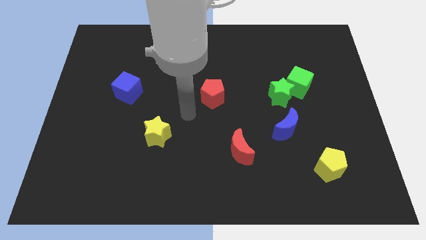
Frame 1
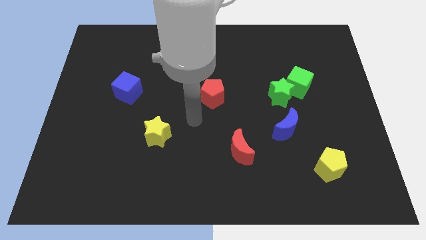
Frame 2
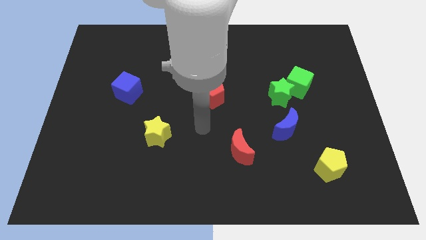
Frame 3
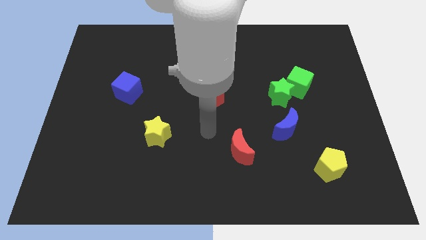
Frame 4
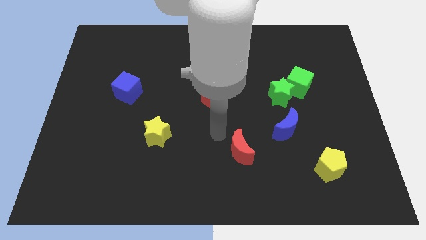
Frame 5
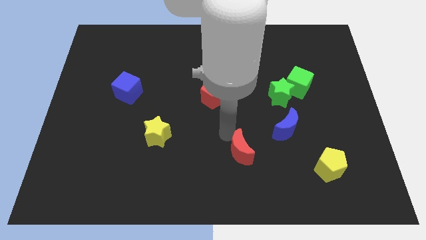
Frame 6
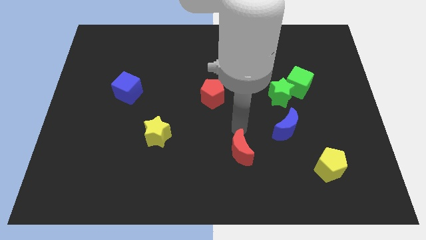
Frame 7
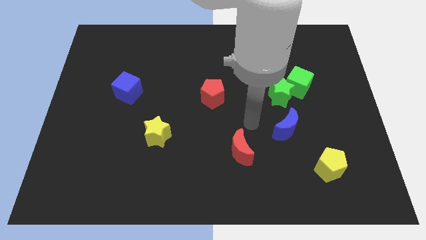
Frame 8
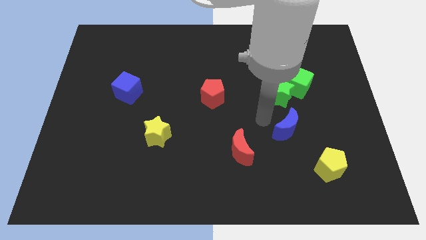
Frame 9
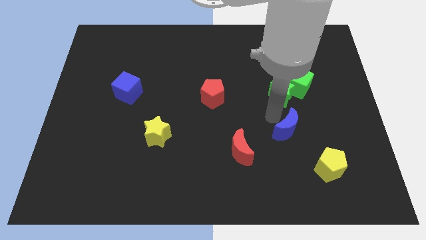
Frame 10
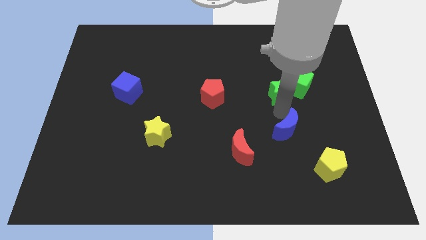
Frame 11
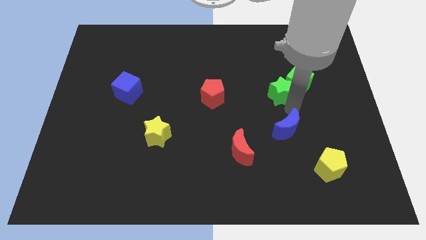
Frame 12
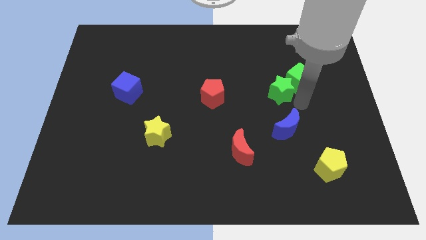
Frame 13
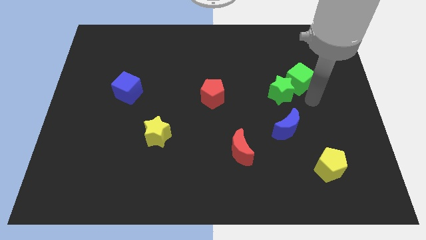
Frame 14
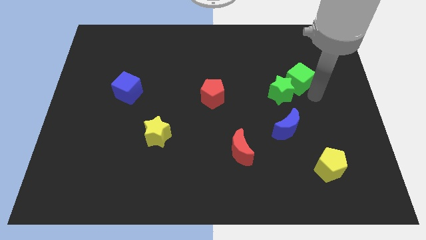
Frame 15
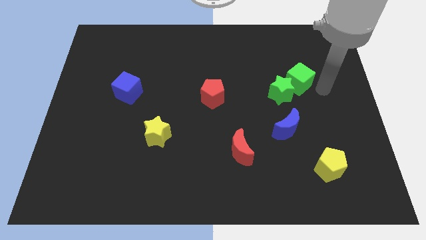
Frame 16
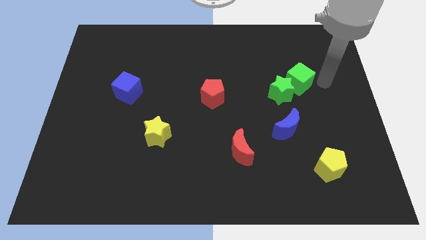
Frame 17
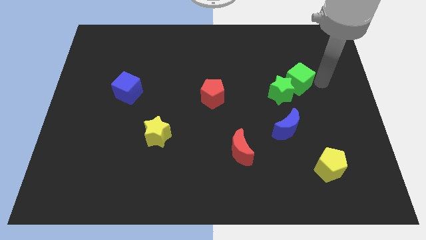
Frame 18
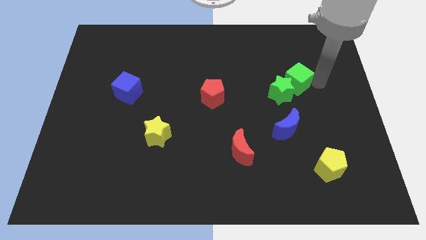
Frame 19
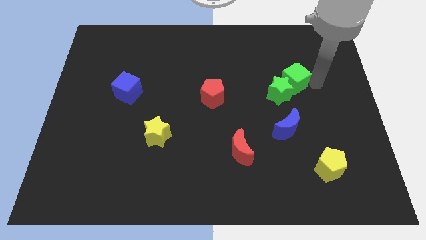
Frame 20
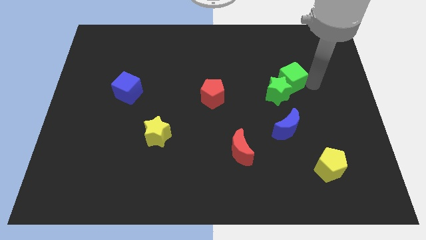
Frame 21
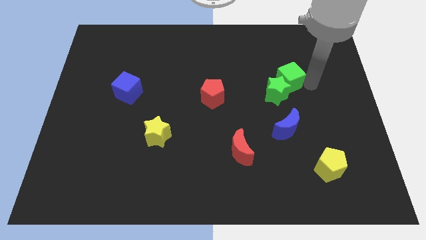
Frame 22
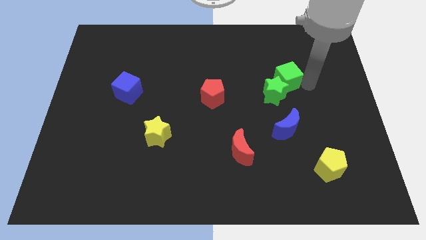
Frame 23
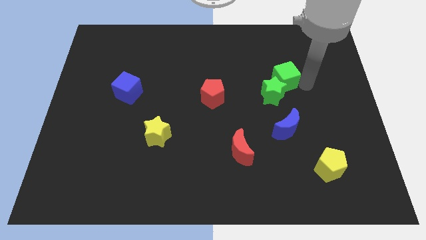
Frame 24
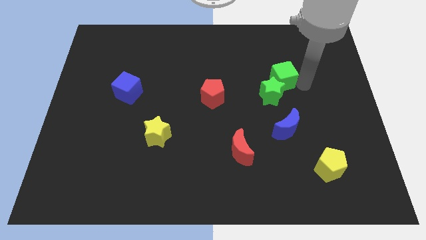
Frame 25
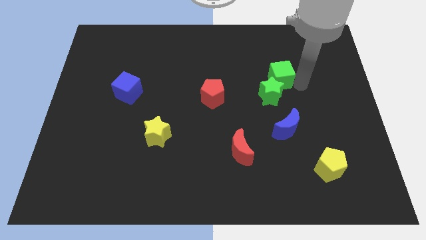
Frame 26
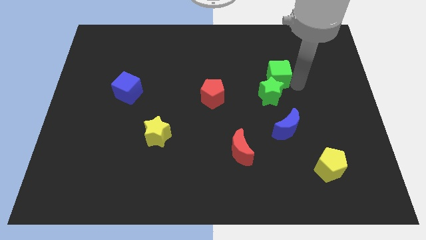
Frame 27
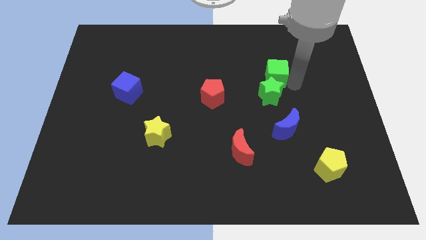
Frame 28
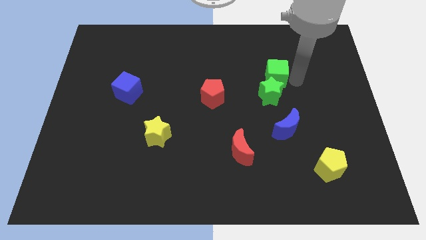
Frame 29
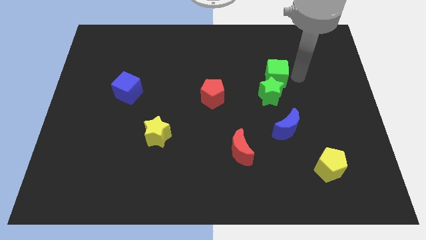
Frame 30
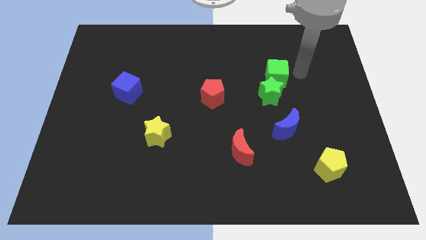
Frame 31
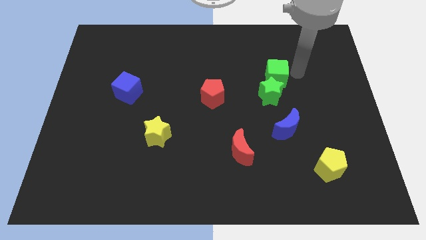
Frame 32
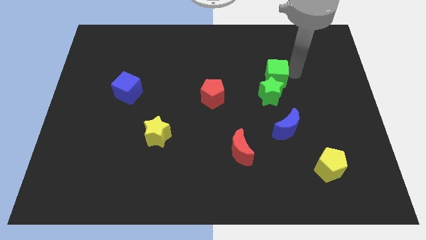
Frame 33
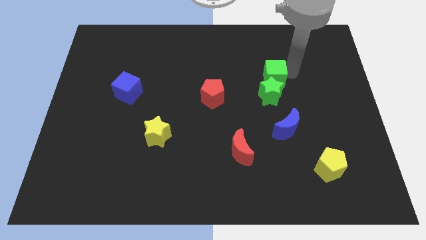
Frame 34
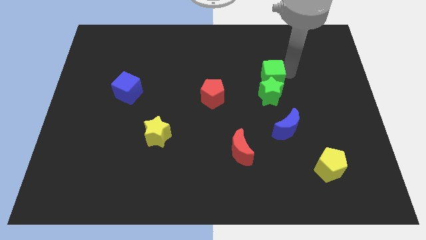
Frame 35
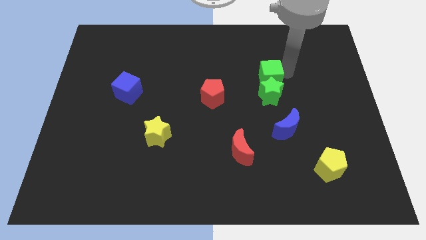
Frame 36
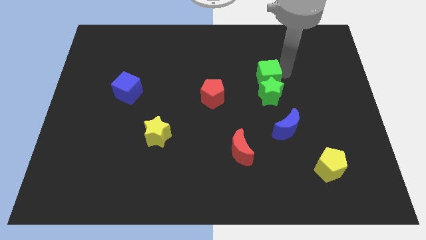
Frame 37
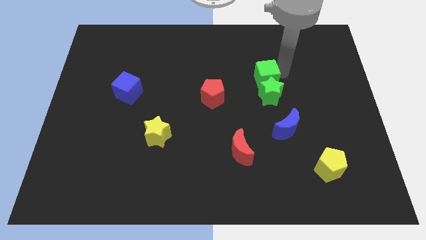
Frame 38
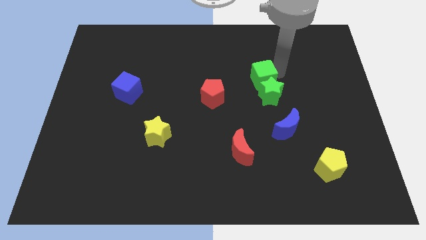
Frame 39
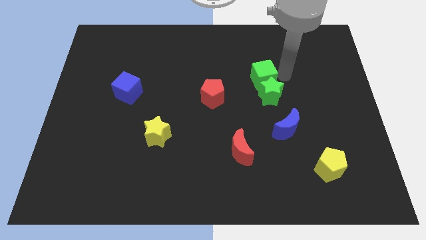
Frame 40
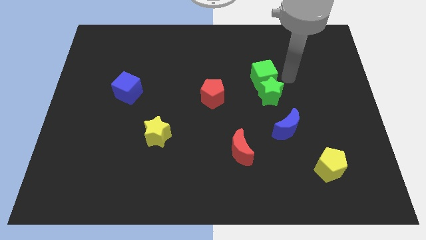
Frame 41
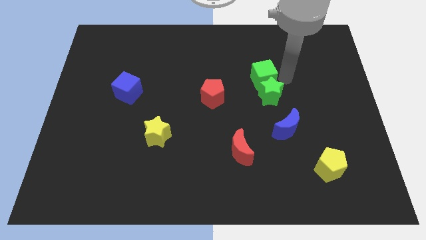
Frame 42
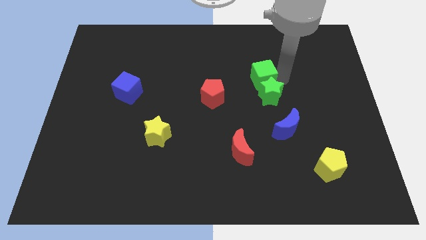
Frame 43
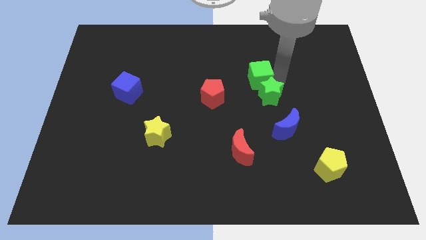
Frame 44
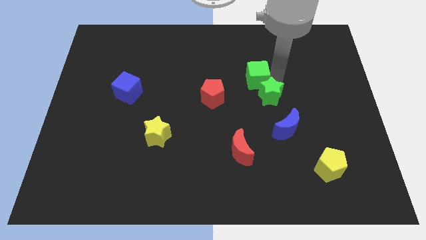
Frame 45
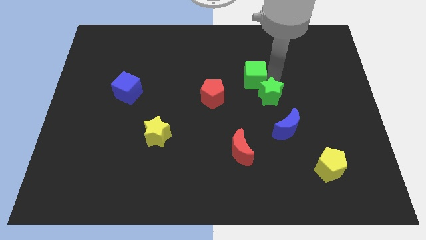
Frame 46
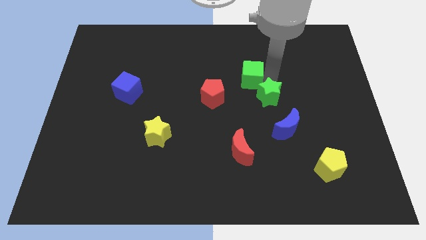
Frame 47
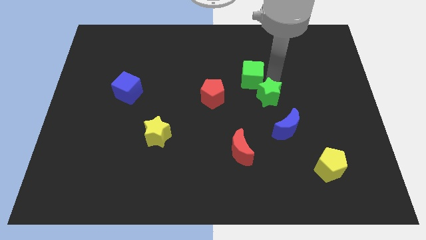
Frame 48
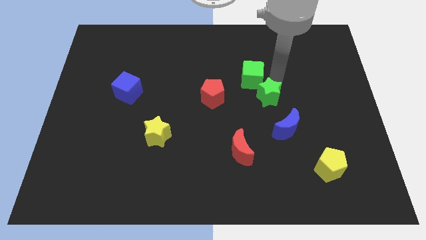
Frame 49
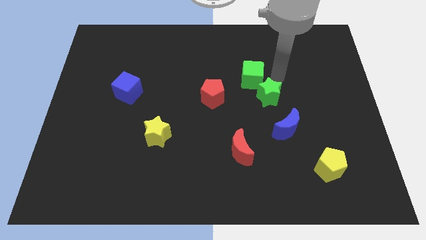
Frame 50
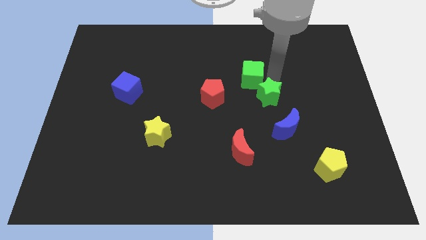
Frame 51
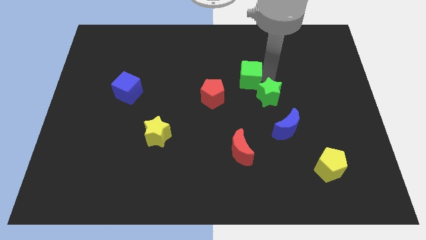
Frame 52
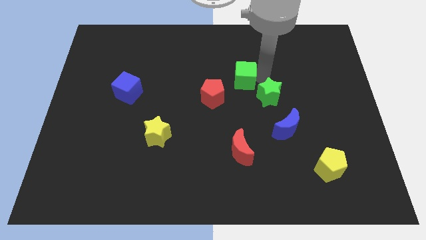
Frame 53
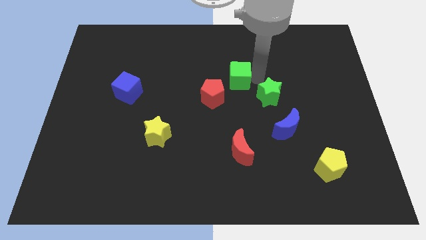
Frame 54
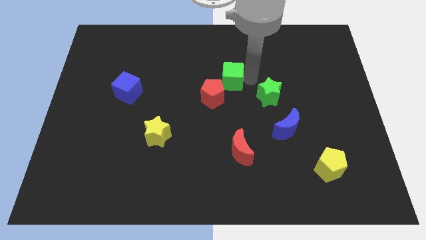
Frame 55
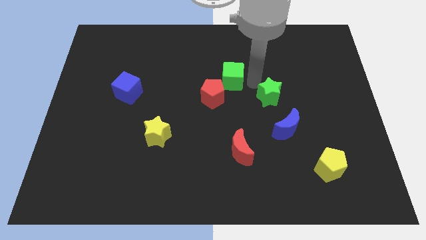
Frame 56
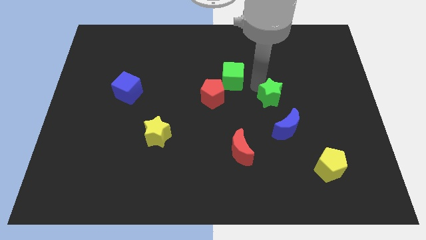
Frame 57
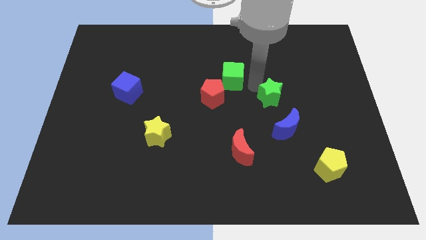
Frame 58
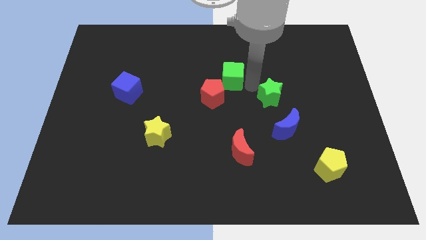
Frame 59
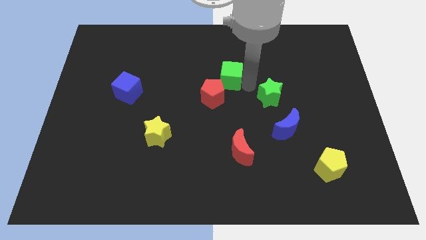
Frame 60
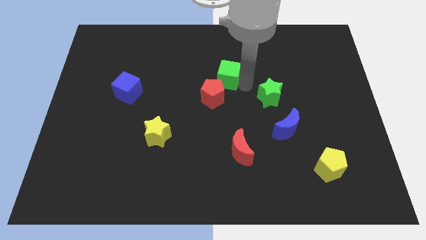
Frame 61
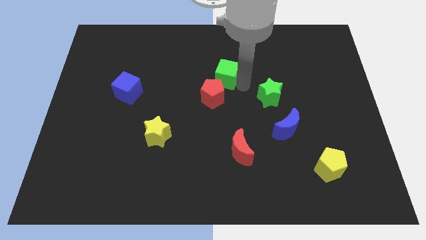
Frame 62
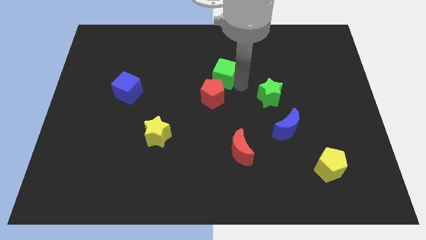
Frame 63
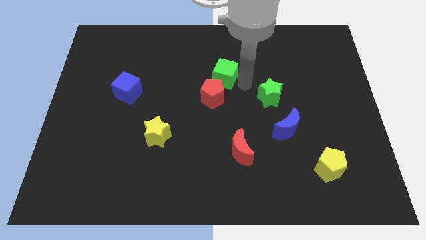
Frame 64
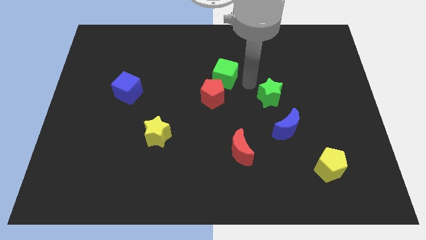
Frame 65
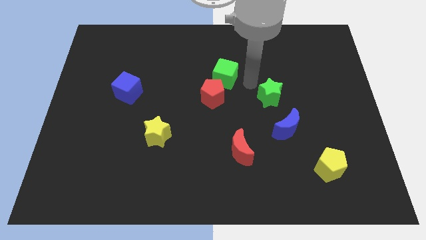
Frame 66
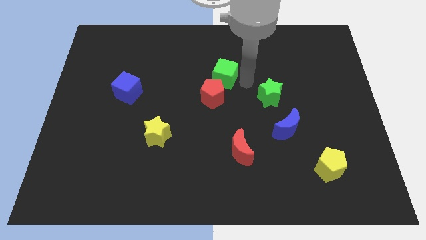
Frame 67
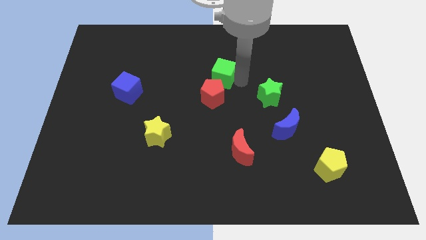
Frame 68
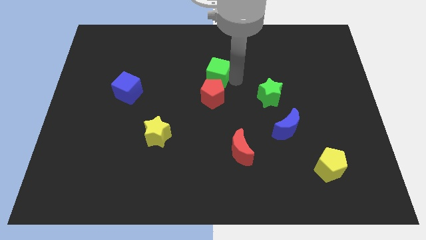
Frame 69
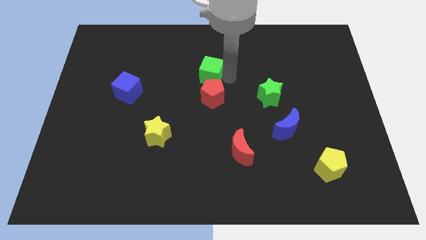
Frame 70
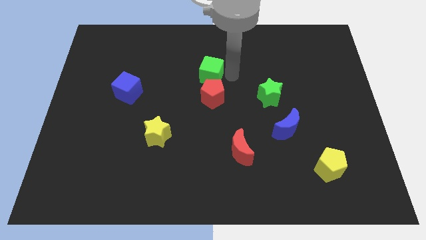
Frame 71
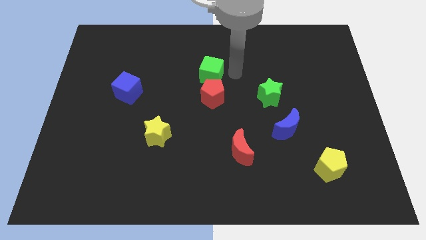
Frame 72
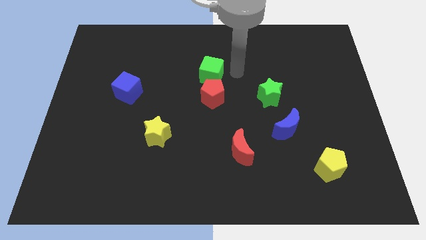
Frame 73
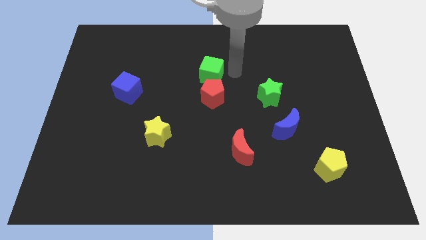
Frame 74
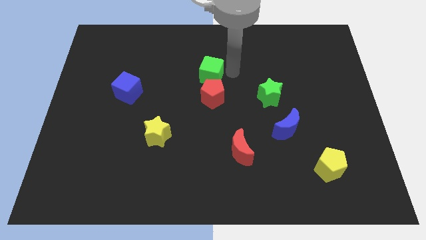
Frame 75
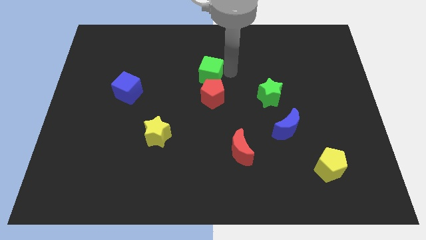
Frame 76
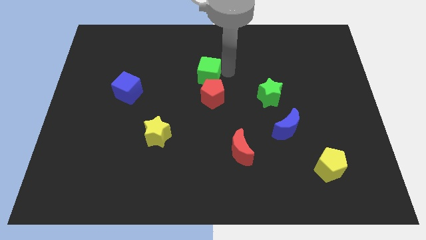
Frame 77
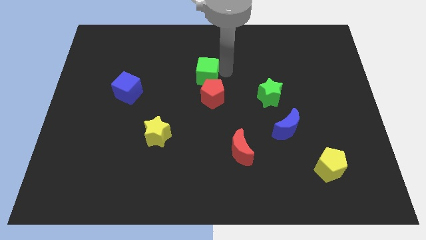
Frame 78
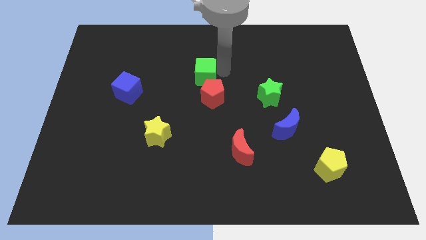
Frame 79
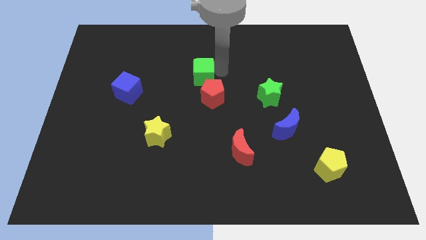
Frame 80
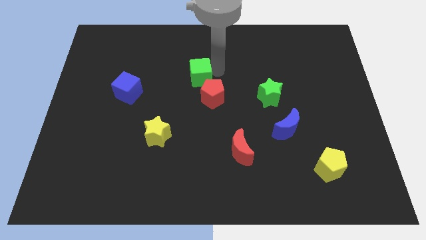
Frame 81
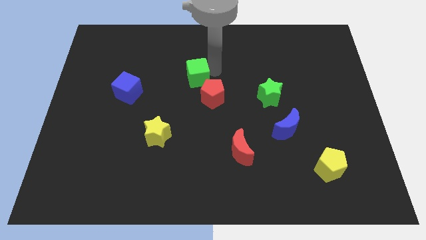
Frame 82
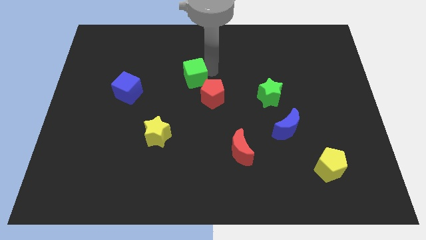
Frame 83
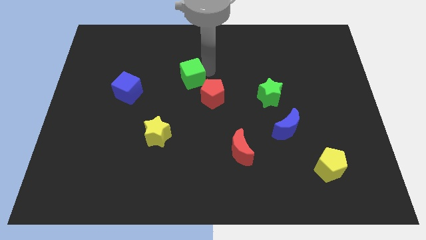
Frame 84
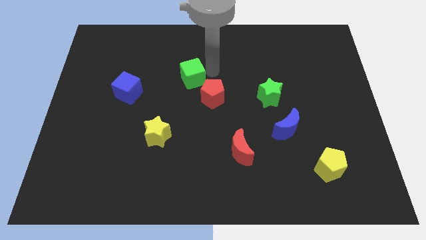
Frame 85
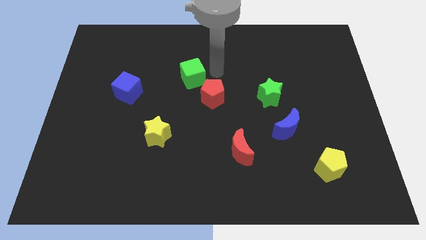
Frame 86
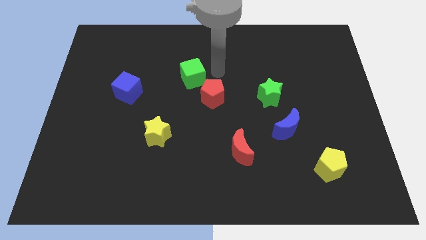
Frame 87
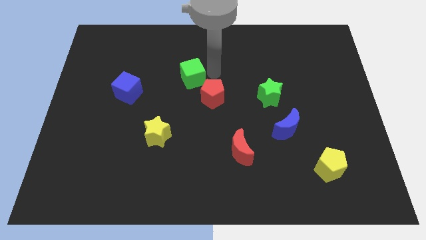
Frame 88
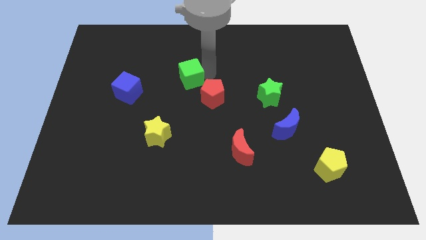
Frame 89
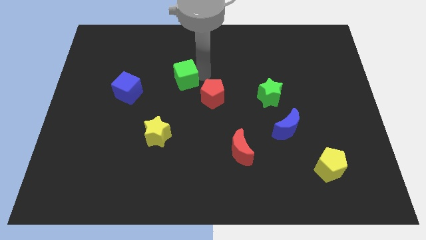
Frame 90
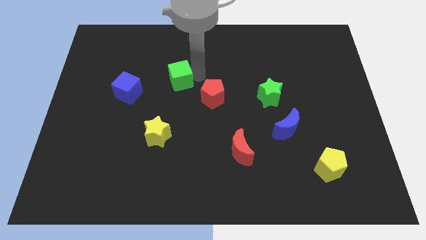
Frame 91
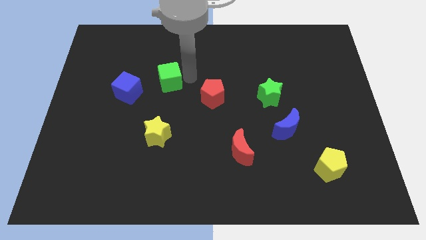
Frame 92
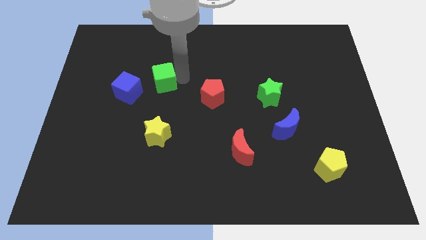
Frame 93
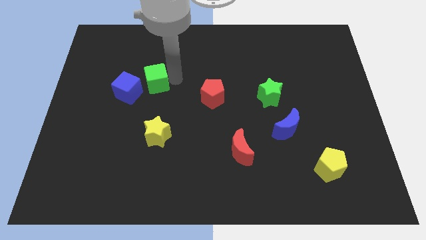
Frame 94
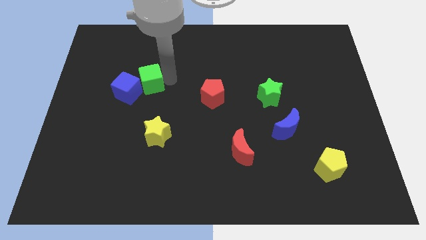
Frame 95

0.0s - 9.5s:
push the green cube to the blue cube
